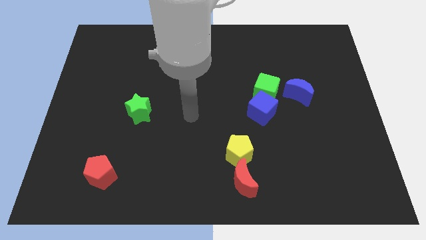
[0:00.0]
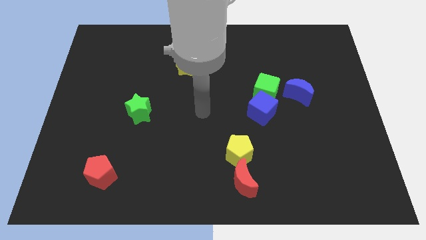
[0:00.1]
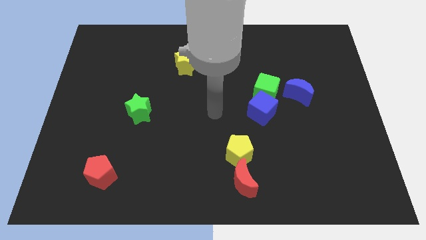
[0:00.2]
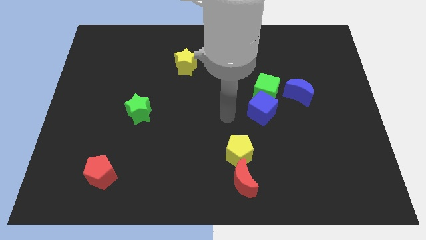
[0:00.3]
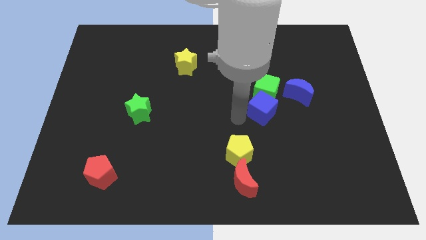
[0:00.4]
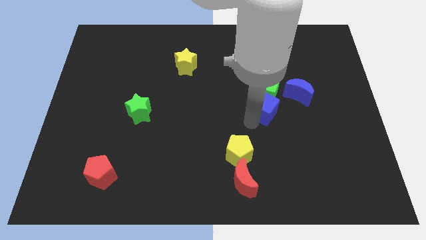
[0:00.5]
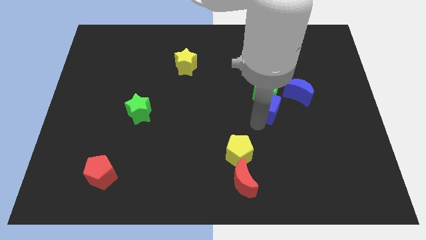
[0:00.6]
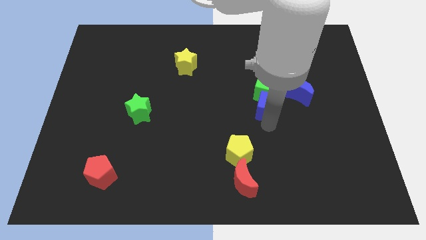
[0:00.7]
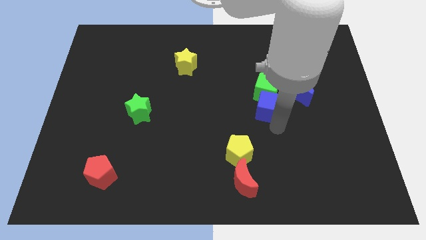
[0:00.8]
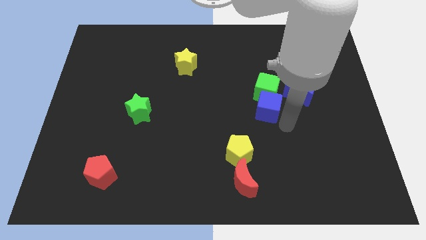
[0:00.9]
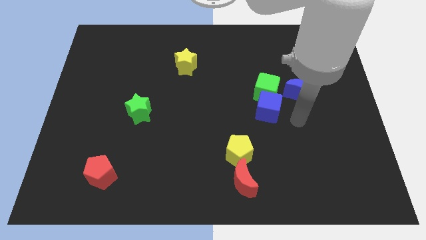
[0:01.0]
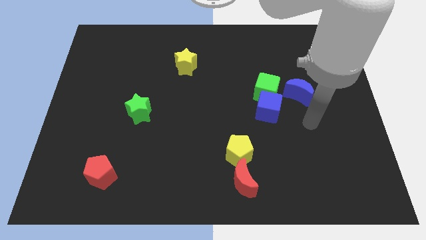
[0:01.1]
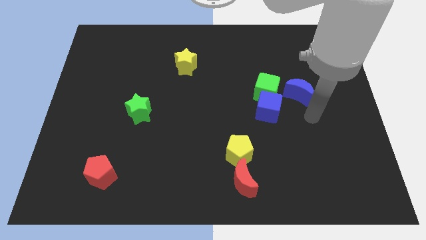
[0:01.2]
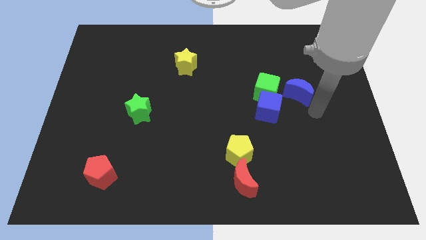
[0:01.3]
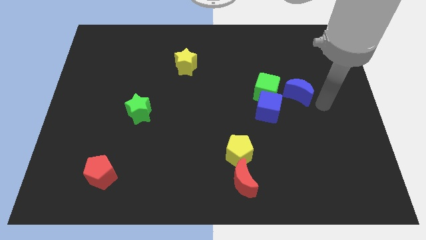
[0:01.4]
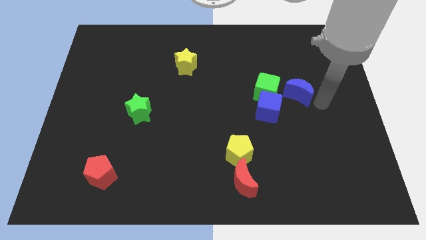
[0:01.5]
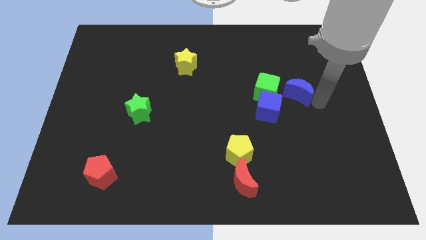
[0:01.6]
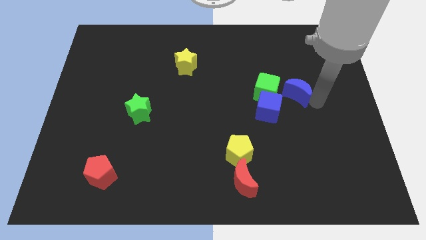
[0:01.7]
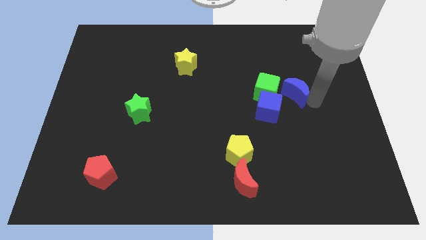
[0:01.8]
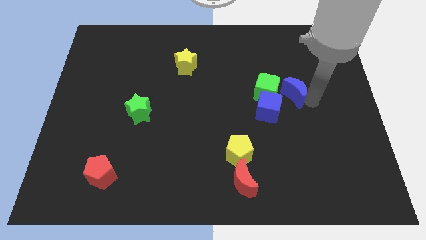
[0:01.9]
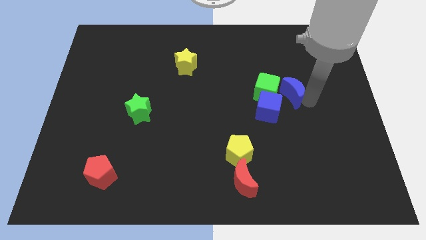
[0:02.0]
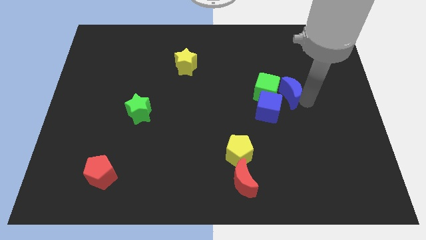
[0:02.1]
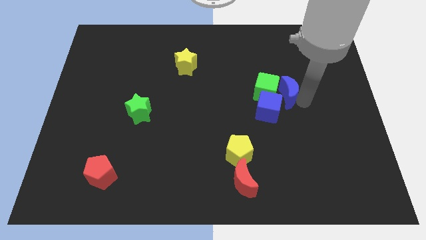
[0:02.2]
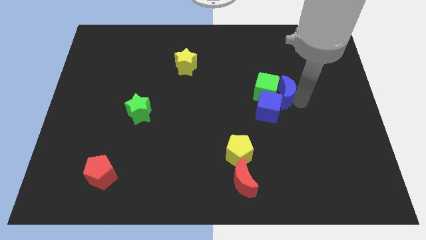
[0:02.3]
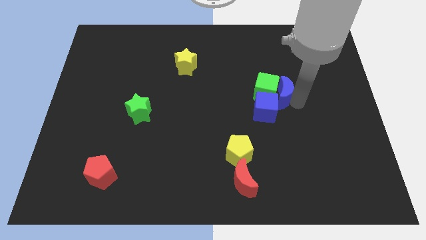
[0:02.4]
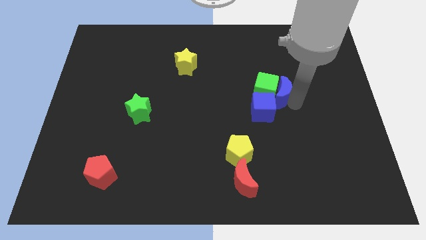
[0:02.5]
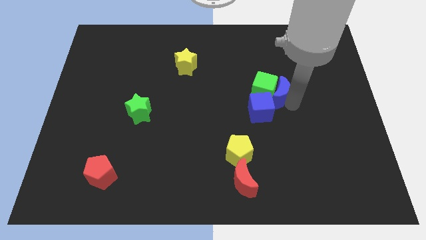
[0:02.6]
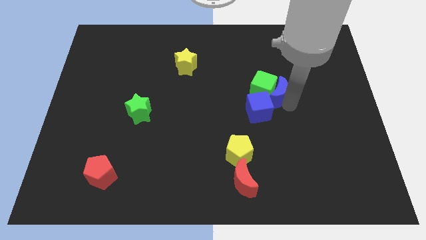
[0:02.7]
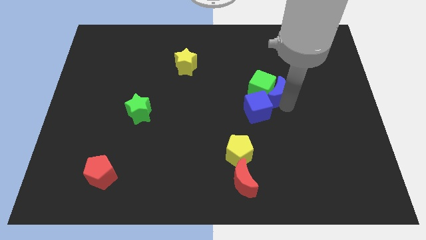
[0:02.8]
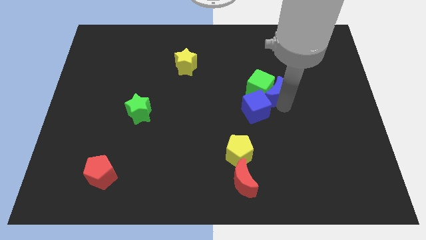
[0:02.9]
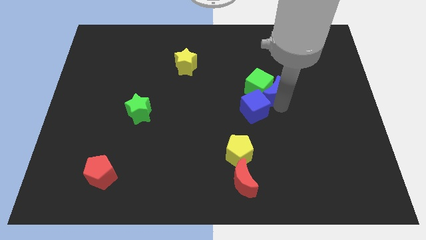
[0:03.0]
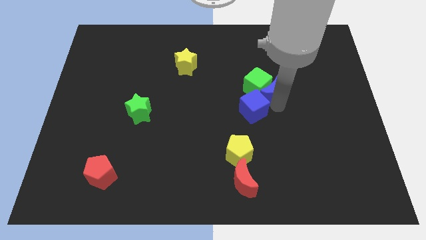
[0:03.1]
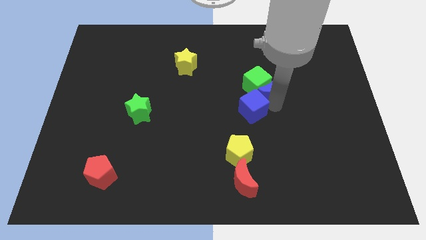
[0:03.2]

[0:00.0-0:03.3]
slightly move the blue moon left

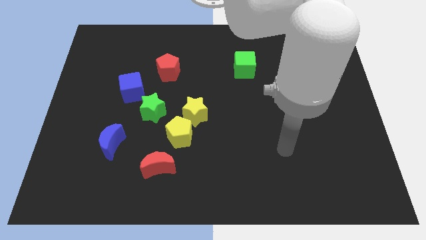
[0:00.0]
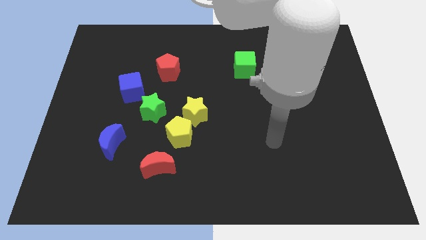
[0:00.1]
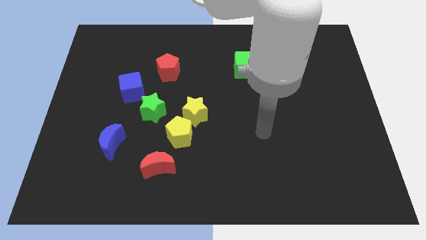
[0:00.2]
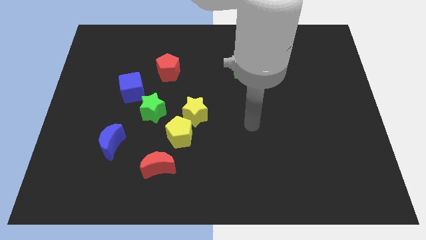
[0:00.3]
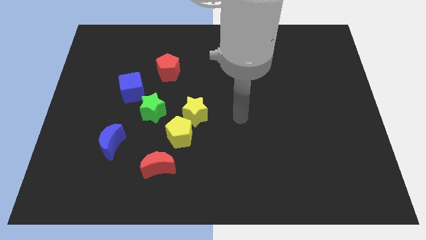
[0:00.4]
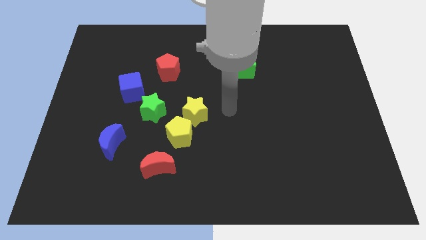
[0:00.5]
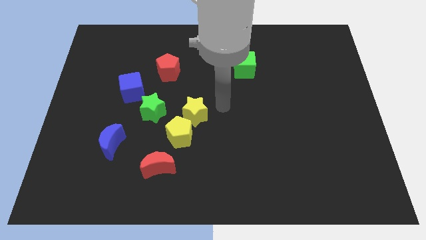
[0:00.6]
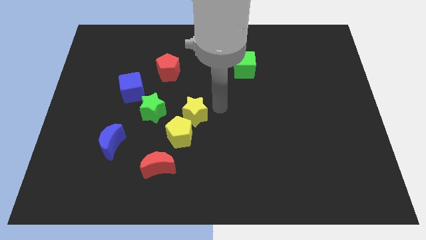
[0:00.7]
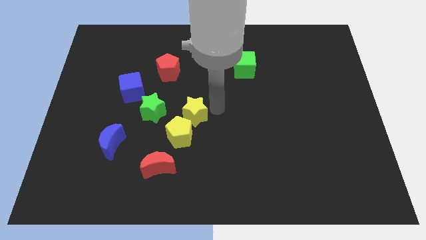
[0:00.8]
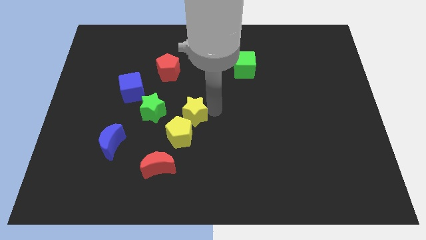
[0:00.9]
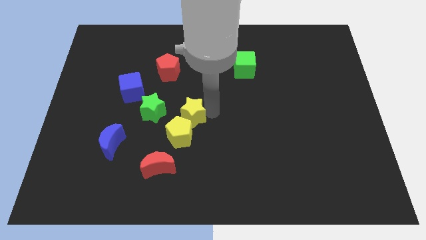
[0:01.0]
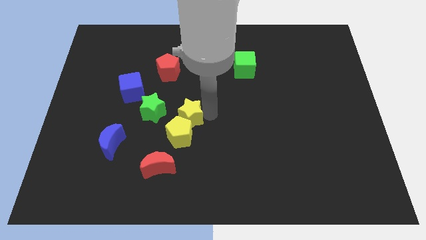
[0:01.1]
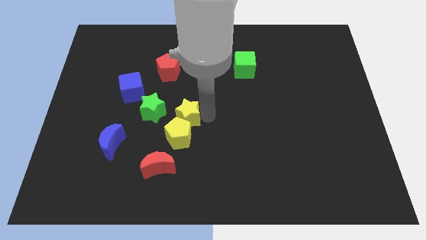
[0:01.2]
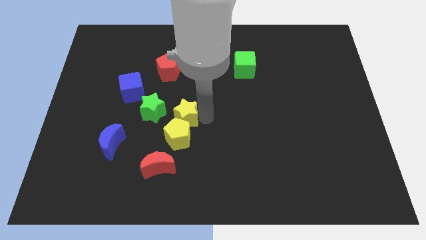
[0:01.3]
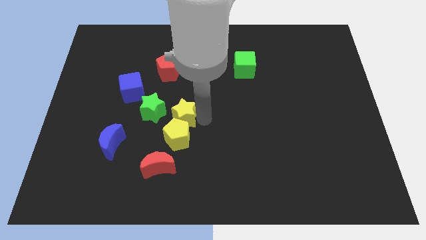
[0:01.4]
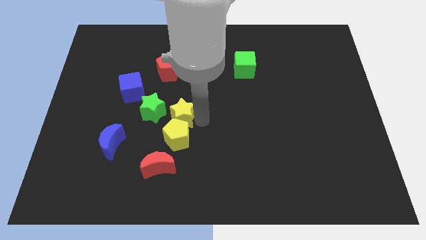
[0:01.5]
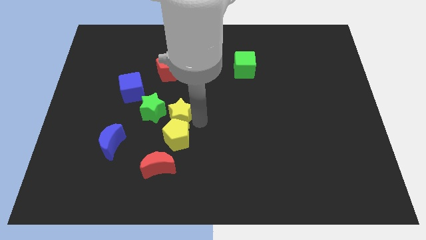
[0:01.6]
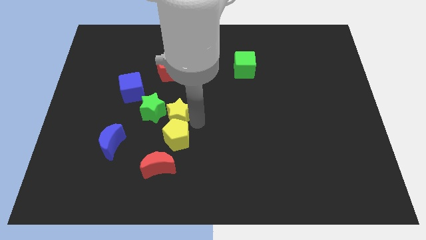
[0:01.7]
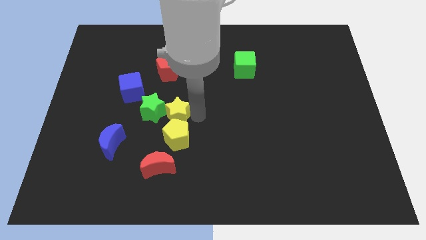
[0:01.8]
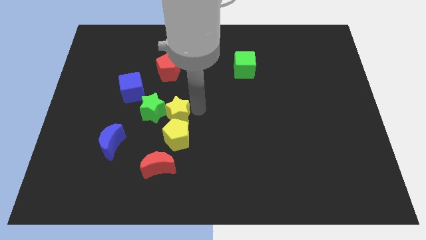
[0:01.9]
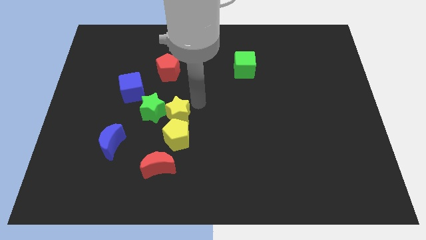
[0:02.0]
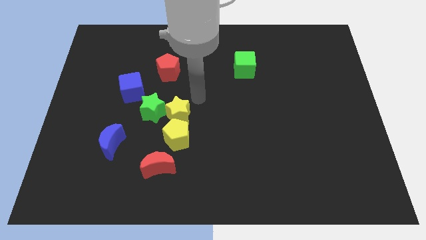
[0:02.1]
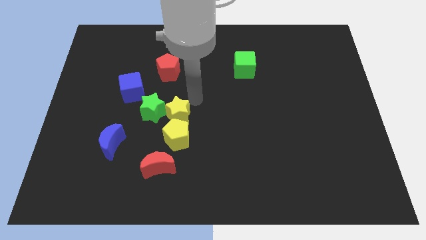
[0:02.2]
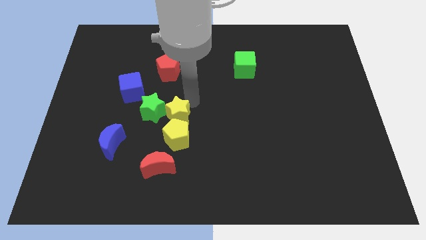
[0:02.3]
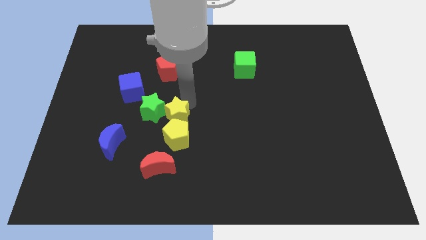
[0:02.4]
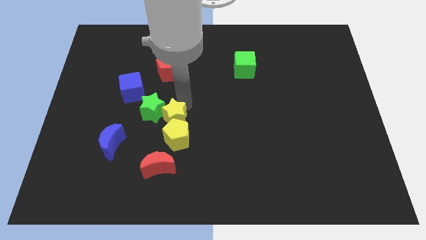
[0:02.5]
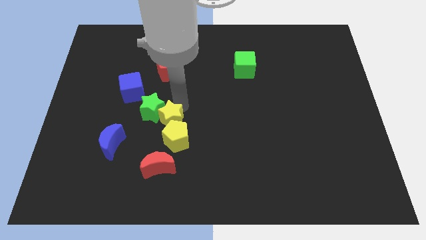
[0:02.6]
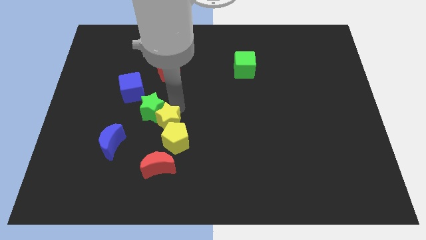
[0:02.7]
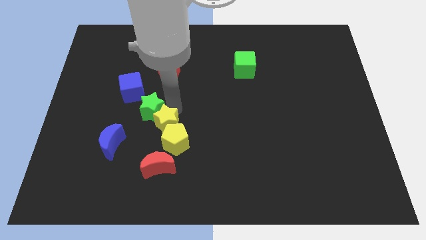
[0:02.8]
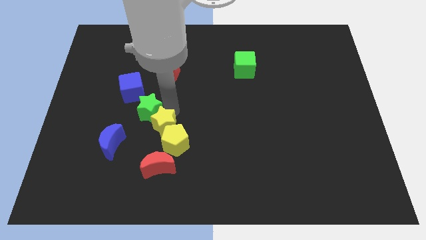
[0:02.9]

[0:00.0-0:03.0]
push the yellow star down and to the left a little

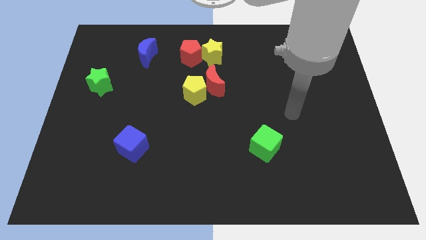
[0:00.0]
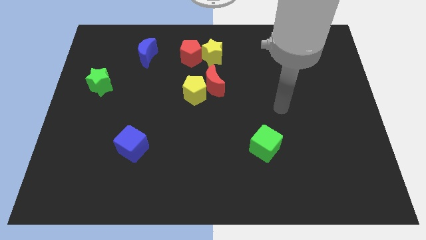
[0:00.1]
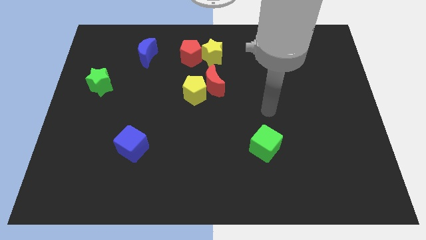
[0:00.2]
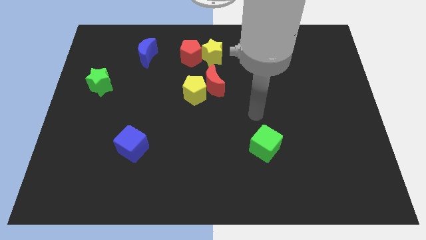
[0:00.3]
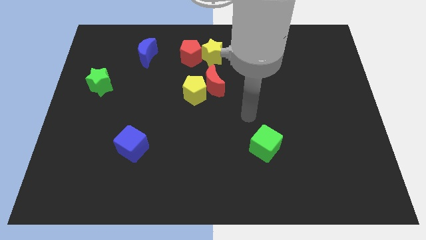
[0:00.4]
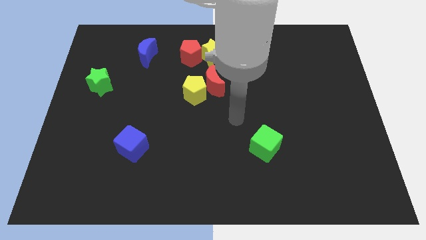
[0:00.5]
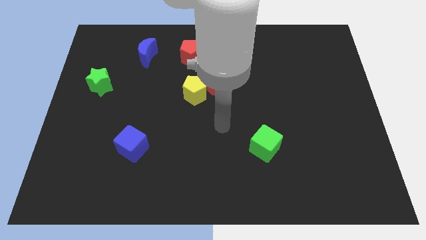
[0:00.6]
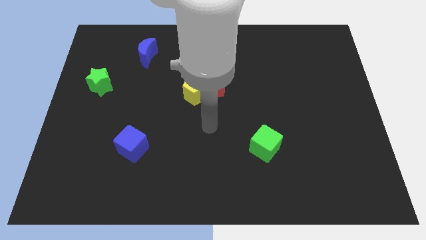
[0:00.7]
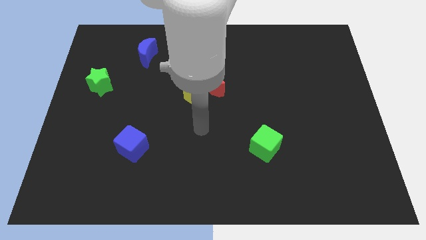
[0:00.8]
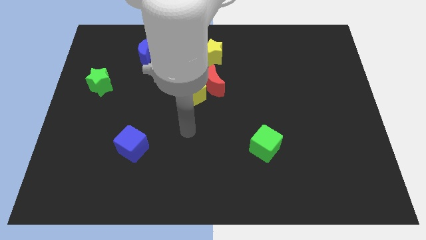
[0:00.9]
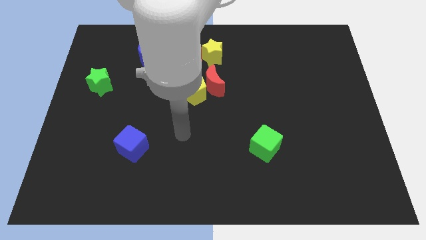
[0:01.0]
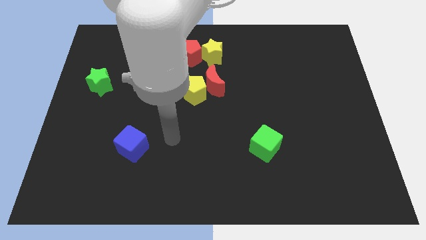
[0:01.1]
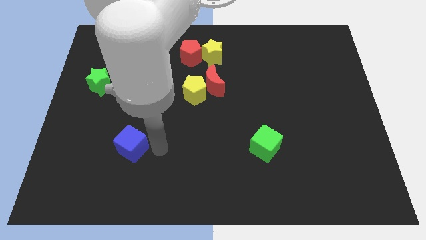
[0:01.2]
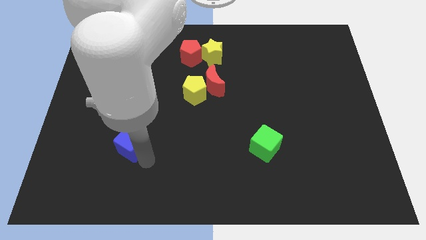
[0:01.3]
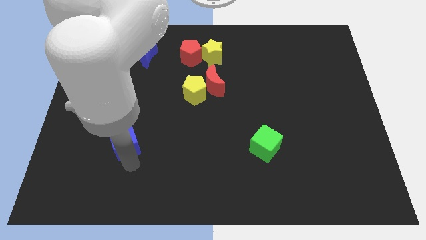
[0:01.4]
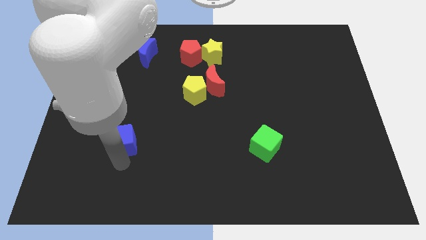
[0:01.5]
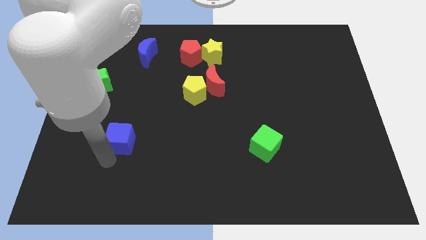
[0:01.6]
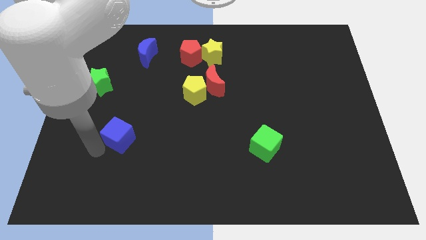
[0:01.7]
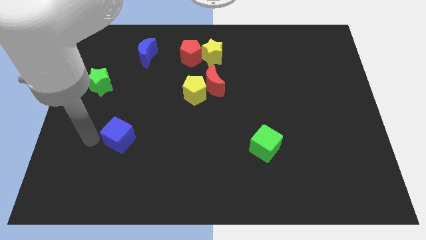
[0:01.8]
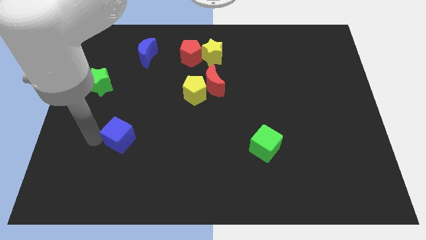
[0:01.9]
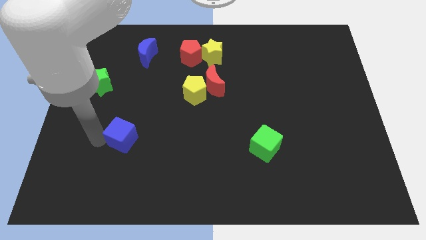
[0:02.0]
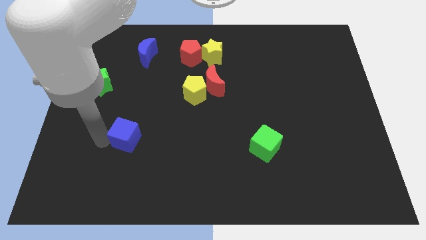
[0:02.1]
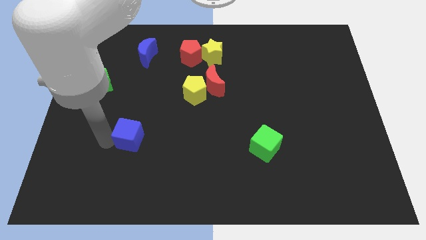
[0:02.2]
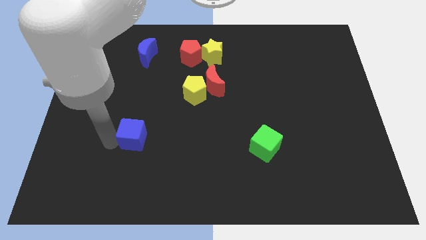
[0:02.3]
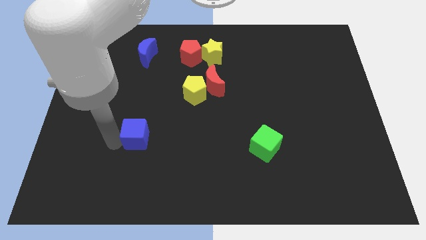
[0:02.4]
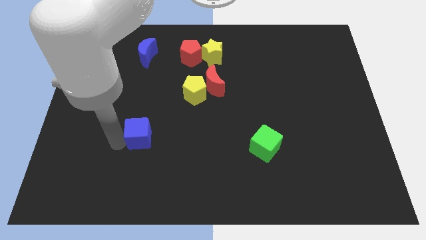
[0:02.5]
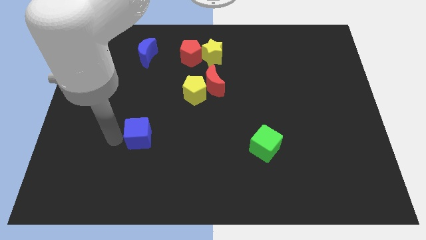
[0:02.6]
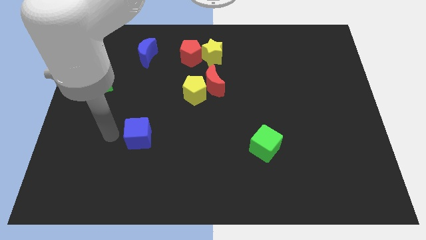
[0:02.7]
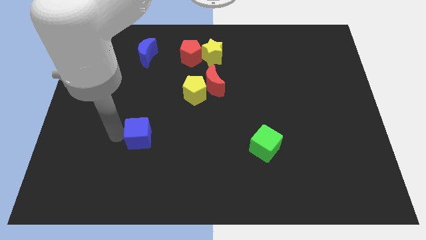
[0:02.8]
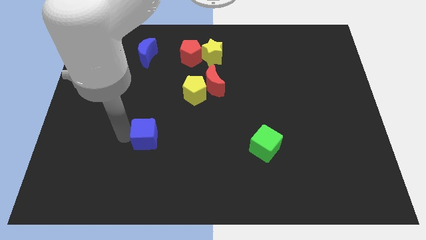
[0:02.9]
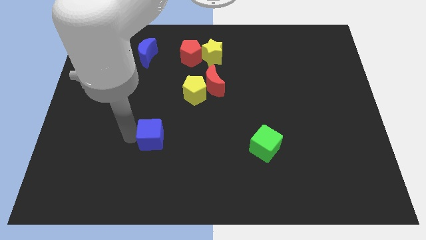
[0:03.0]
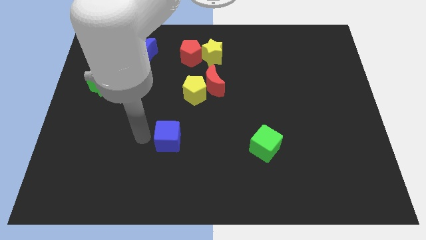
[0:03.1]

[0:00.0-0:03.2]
slightly push the blue cube right
